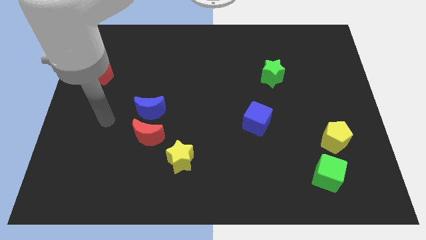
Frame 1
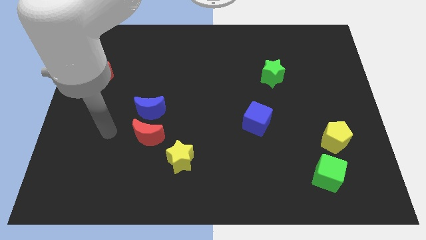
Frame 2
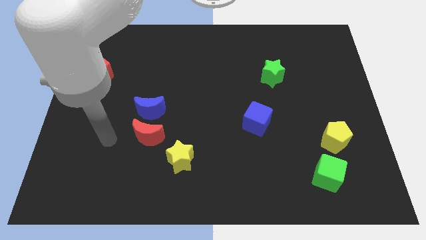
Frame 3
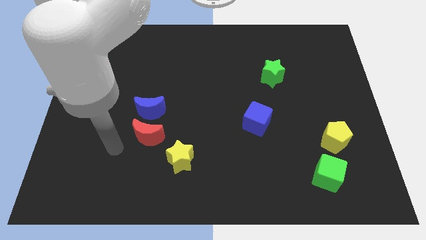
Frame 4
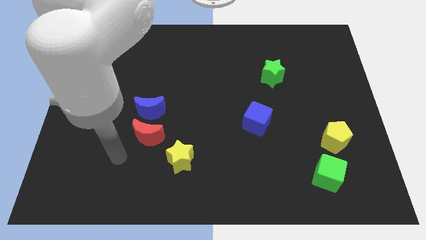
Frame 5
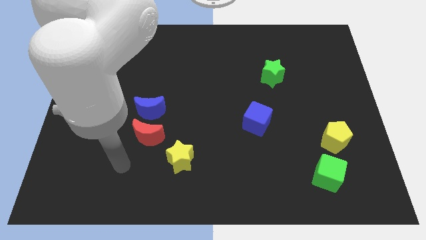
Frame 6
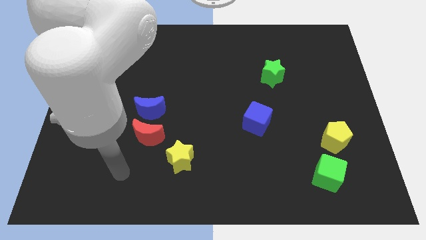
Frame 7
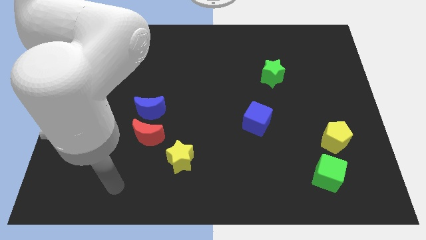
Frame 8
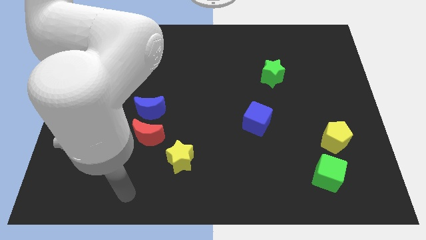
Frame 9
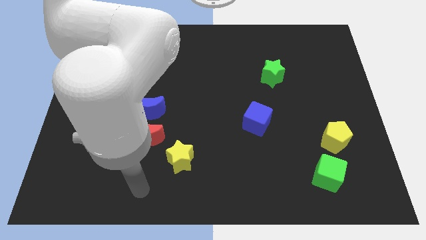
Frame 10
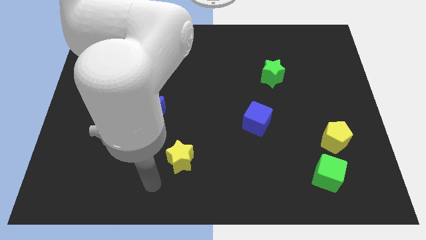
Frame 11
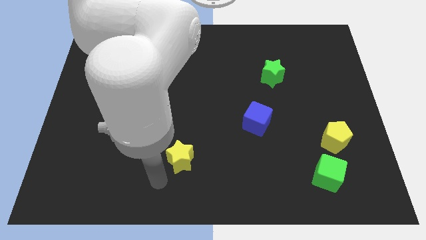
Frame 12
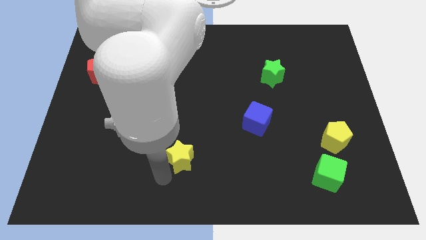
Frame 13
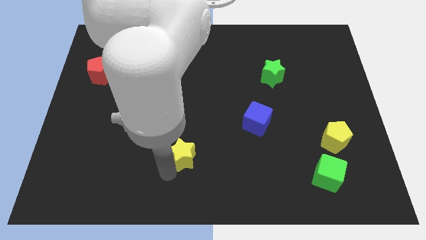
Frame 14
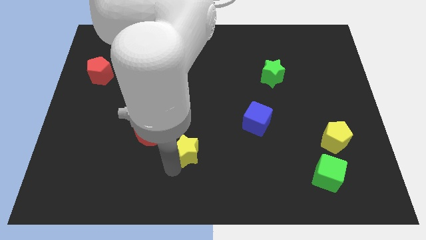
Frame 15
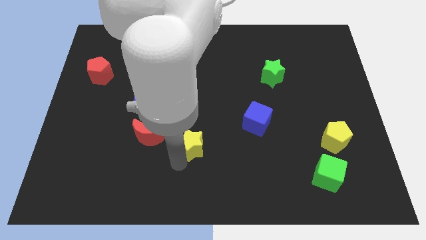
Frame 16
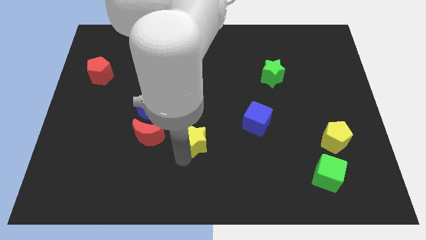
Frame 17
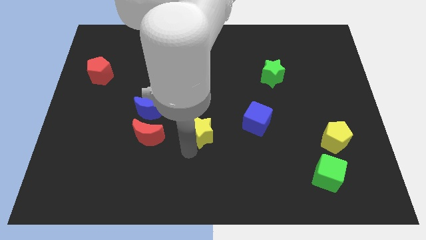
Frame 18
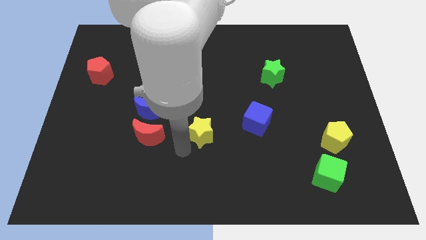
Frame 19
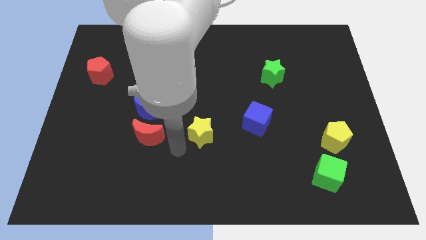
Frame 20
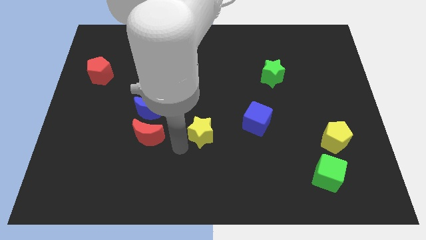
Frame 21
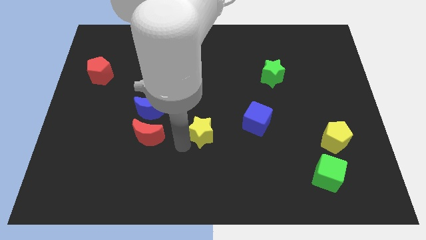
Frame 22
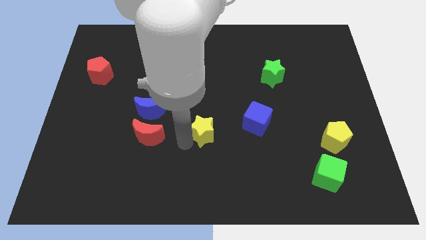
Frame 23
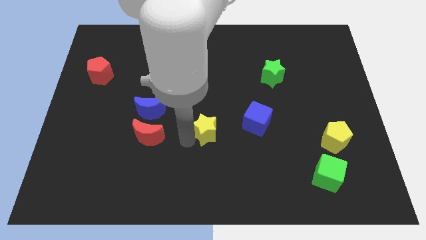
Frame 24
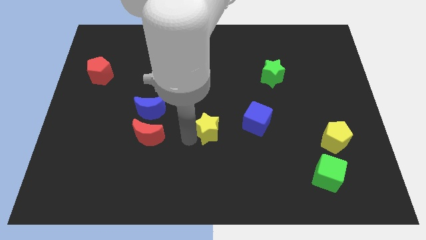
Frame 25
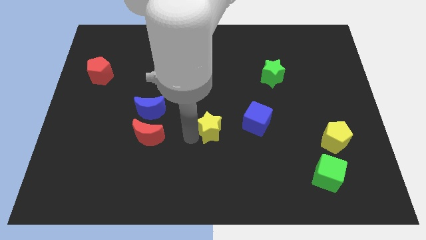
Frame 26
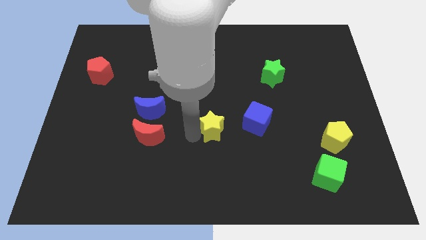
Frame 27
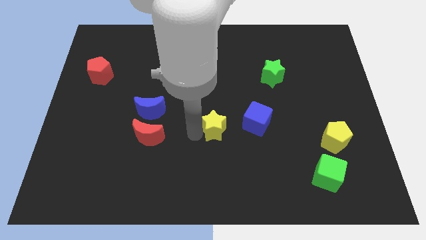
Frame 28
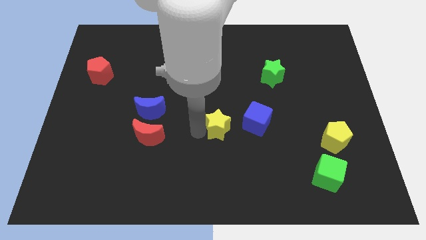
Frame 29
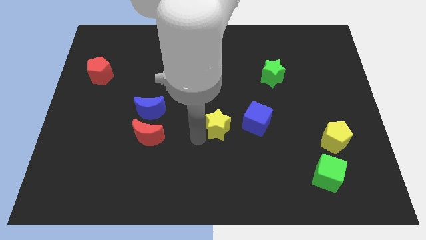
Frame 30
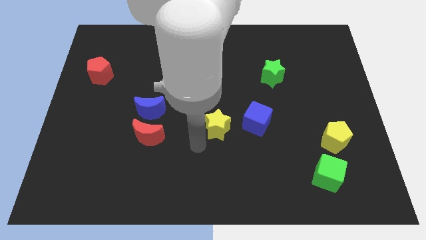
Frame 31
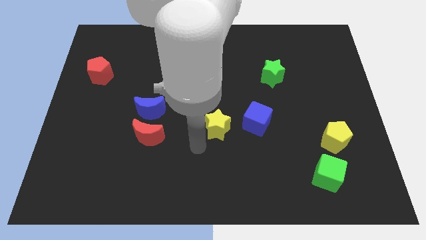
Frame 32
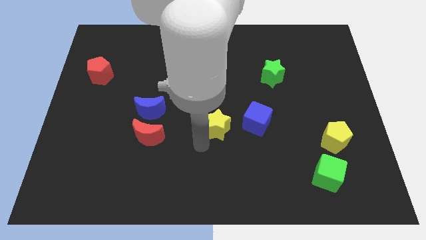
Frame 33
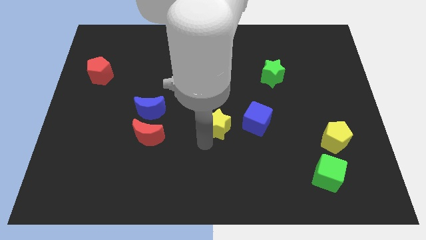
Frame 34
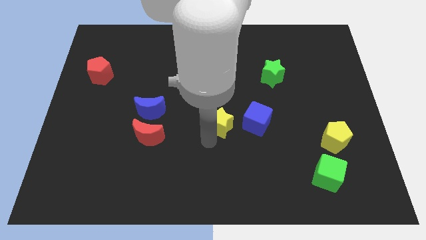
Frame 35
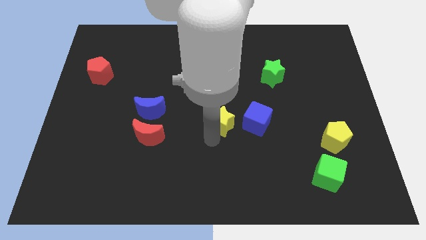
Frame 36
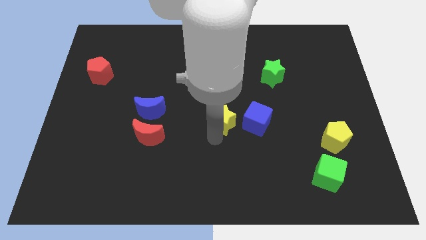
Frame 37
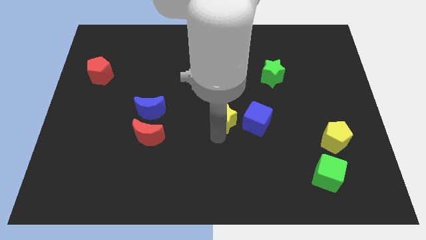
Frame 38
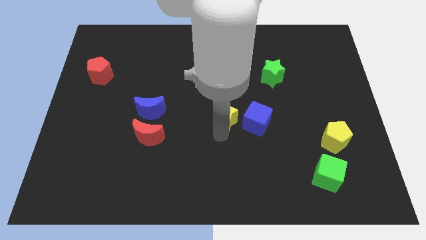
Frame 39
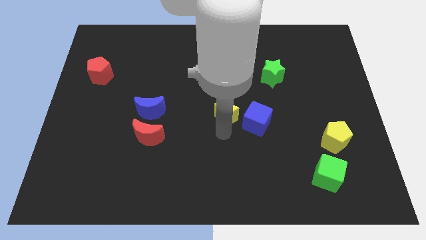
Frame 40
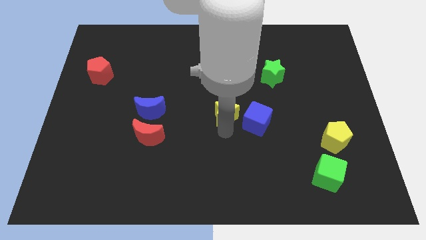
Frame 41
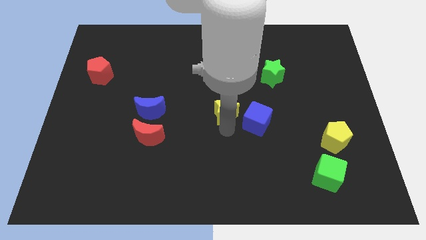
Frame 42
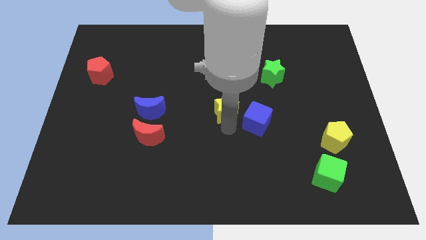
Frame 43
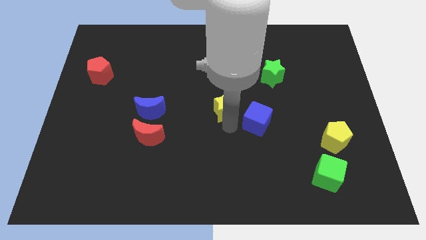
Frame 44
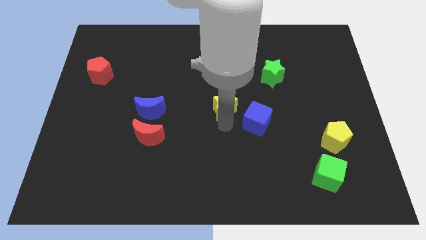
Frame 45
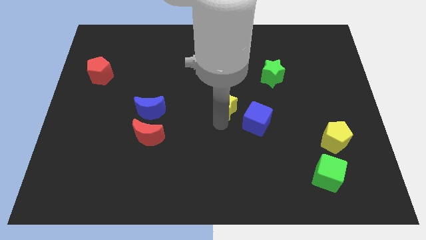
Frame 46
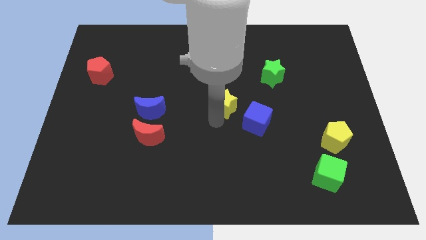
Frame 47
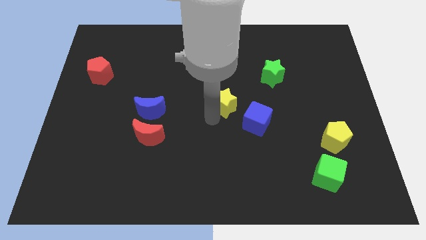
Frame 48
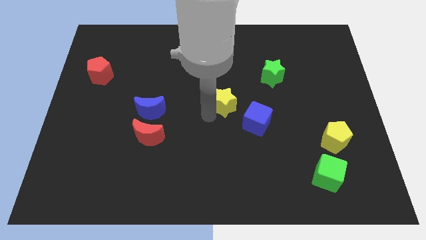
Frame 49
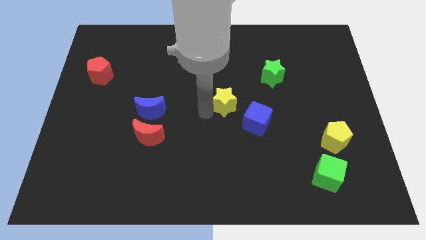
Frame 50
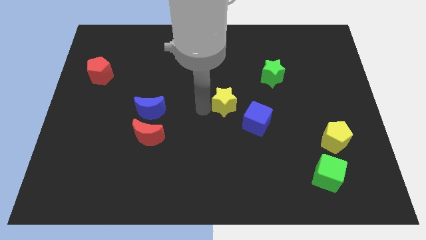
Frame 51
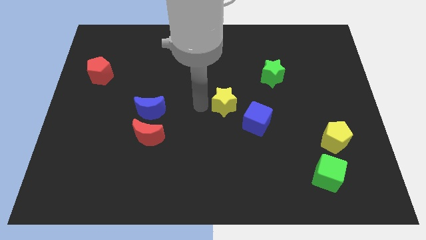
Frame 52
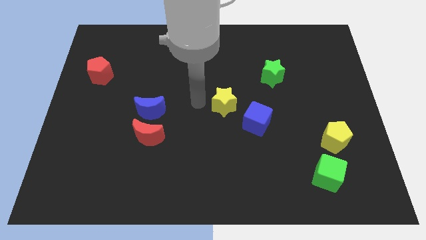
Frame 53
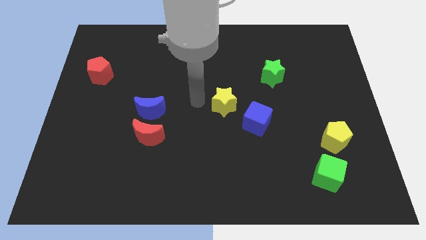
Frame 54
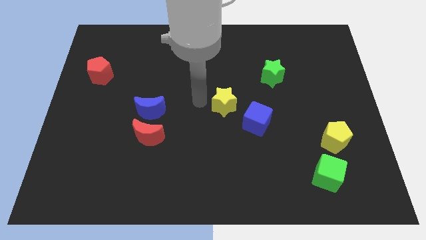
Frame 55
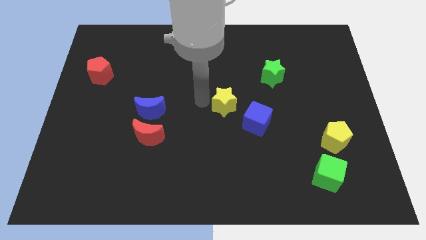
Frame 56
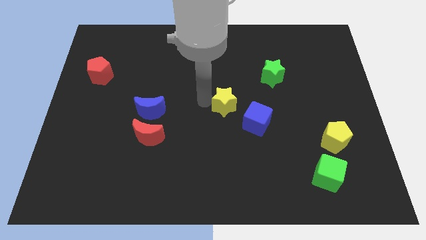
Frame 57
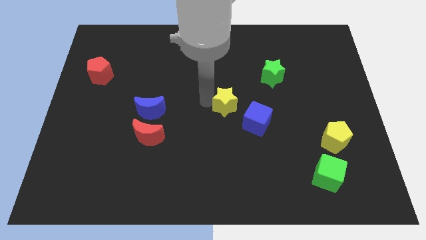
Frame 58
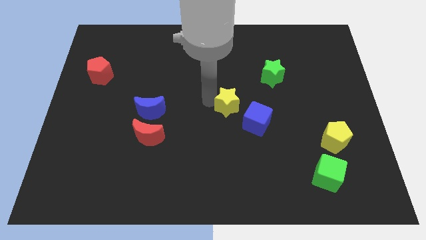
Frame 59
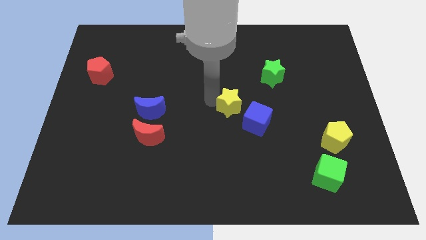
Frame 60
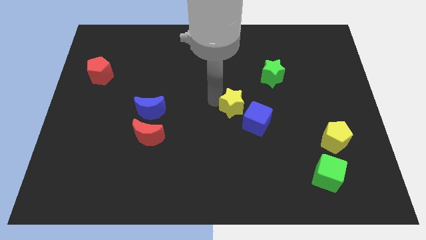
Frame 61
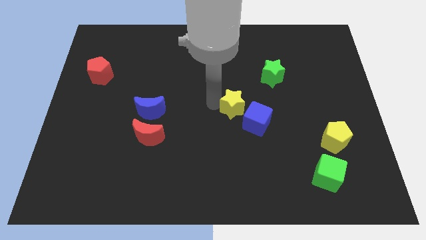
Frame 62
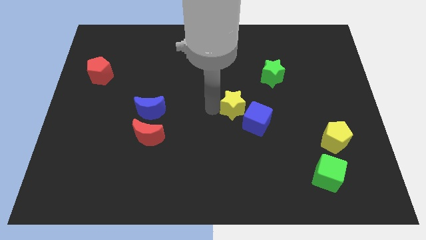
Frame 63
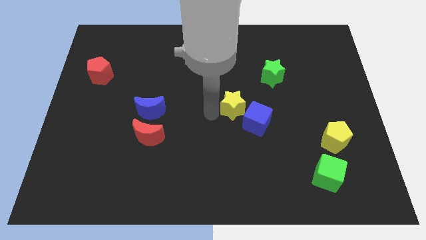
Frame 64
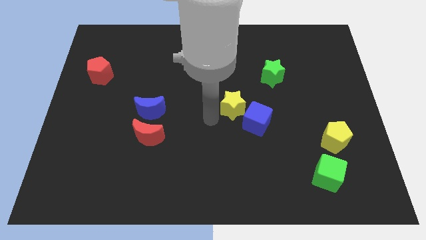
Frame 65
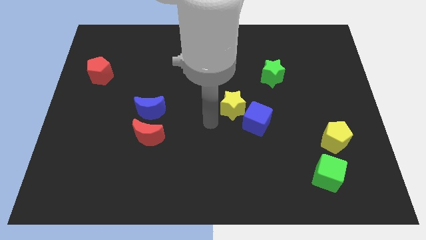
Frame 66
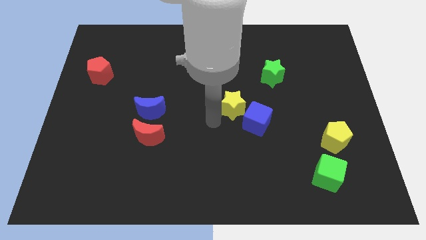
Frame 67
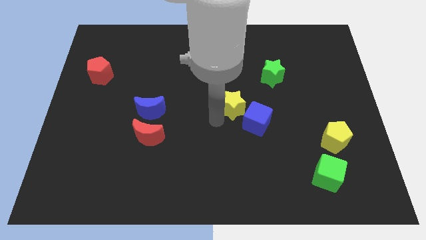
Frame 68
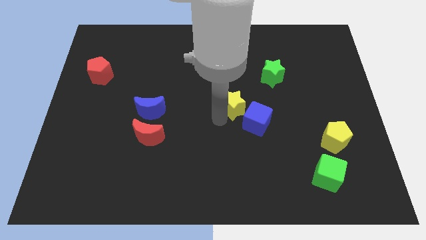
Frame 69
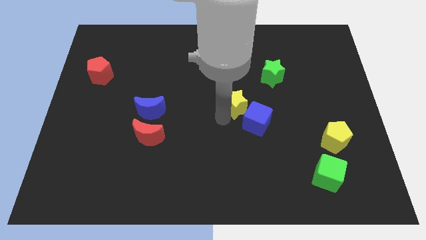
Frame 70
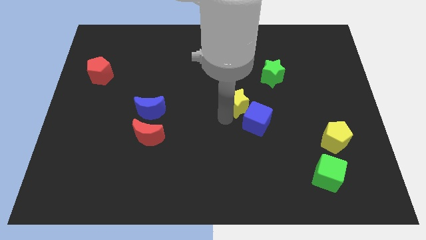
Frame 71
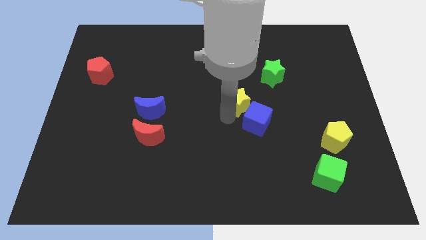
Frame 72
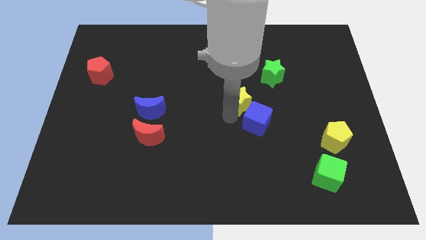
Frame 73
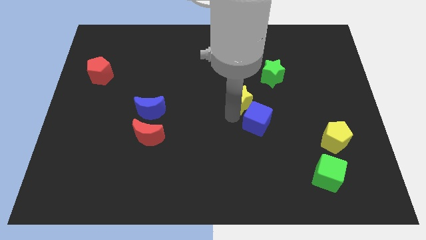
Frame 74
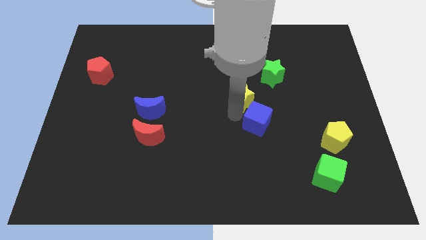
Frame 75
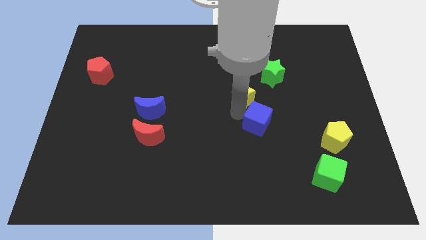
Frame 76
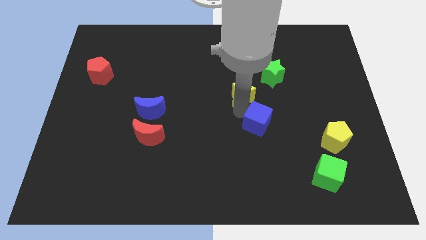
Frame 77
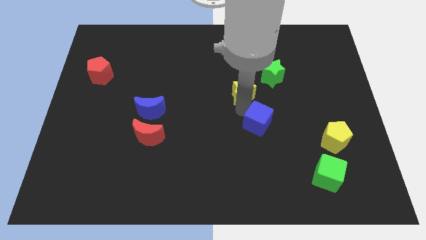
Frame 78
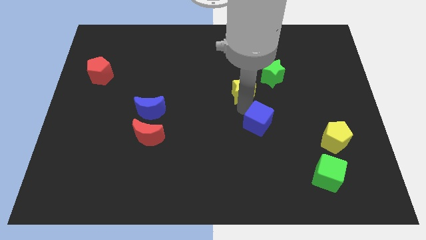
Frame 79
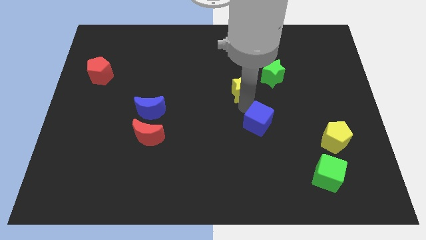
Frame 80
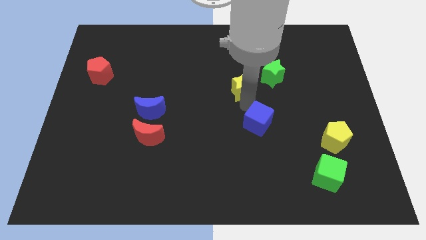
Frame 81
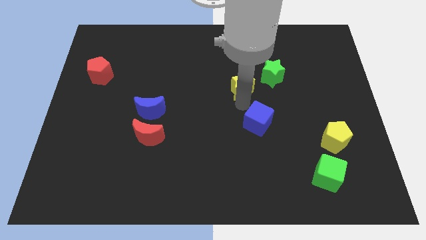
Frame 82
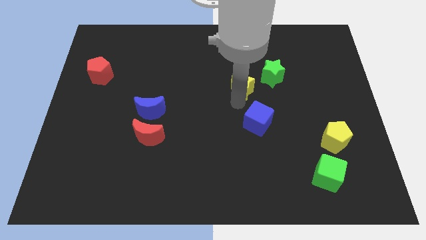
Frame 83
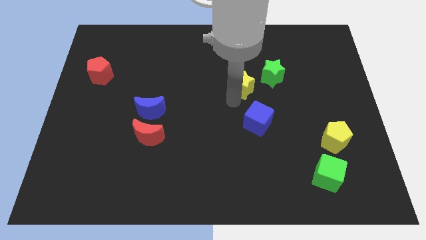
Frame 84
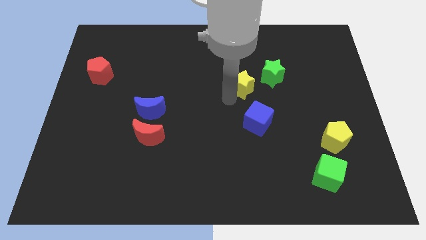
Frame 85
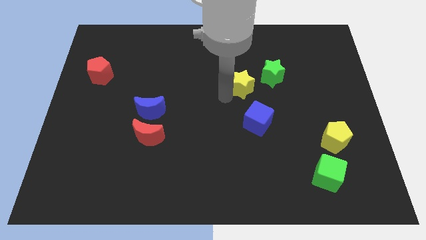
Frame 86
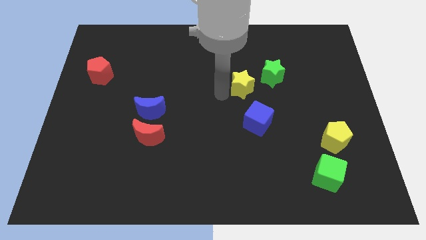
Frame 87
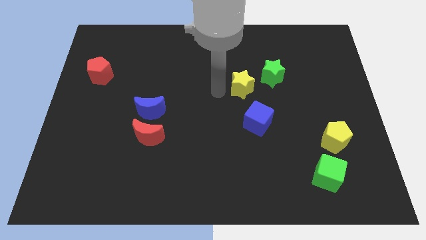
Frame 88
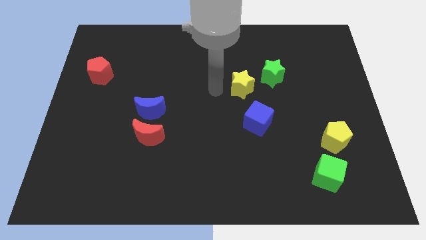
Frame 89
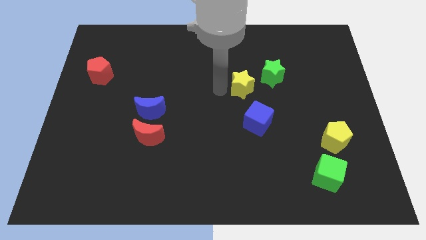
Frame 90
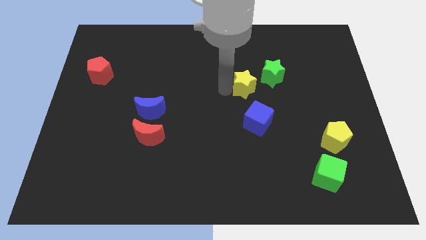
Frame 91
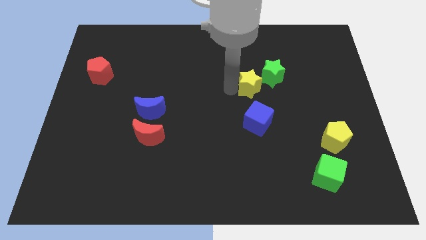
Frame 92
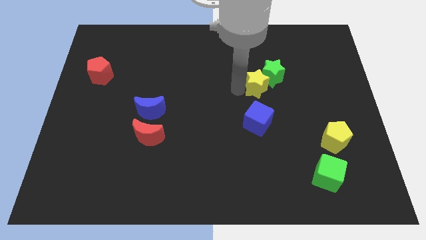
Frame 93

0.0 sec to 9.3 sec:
slide the yellow star close to the green star
